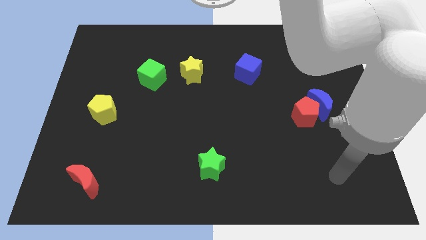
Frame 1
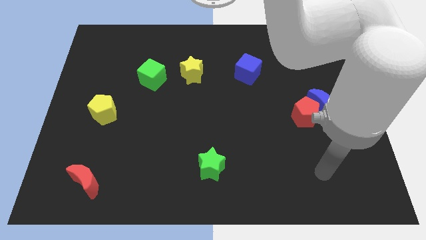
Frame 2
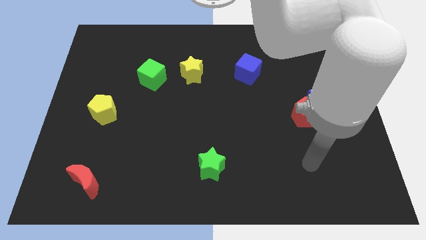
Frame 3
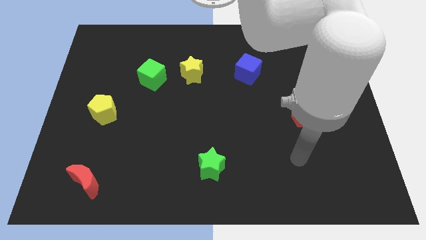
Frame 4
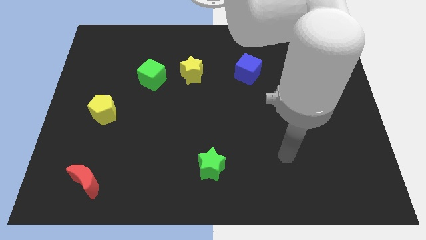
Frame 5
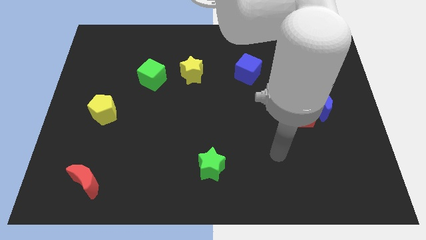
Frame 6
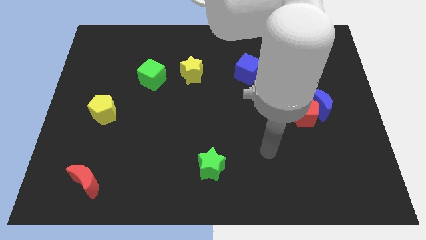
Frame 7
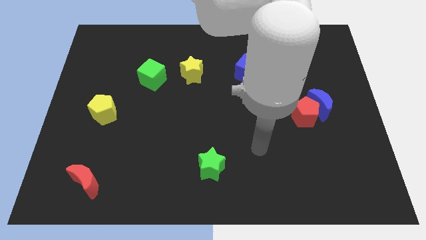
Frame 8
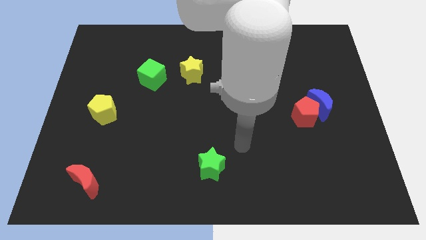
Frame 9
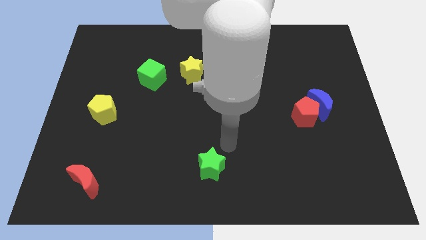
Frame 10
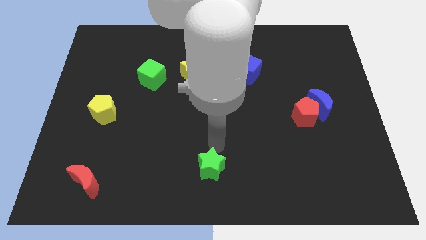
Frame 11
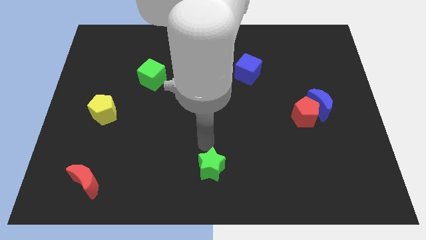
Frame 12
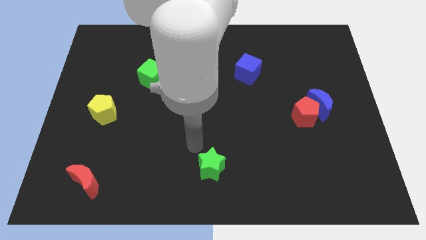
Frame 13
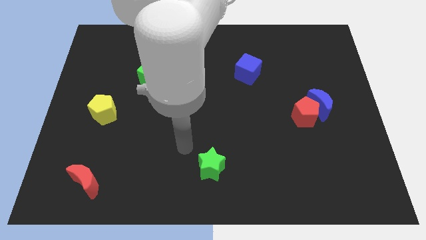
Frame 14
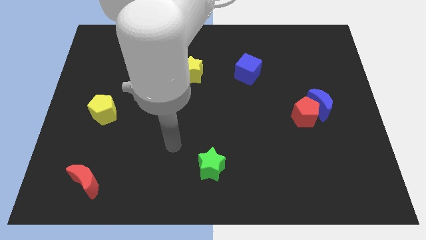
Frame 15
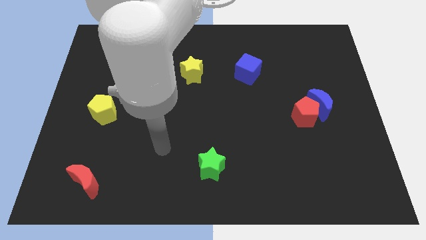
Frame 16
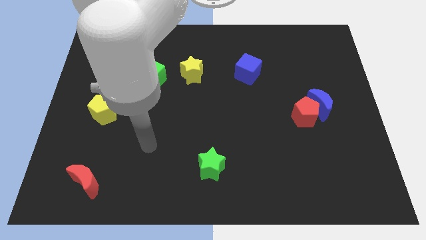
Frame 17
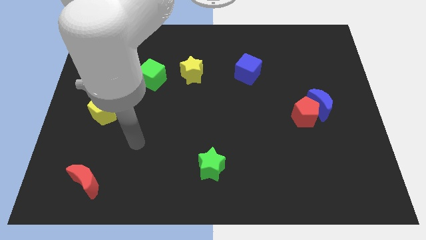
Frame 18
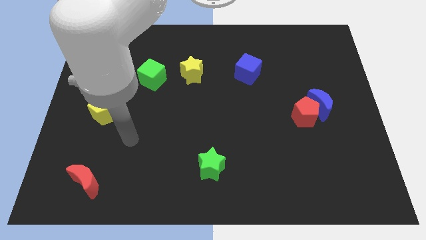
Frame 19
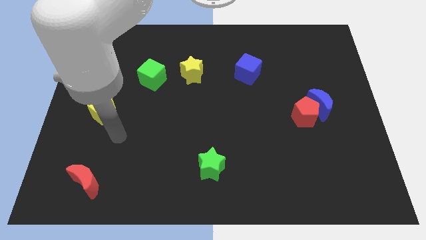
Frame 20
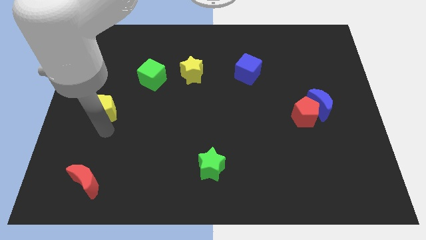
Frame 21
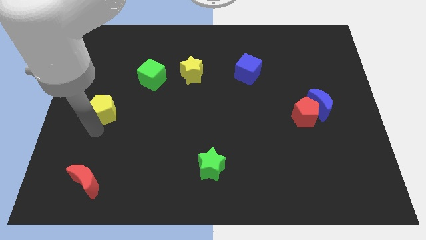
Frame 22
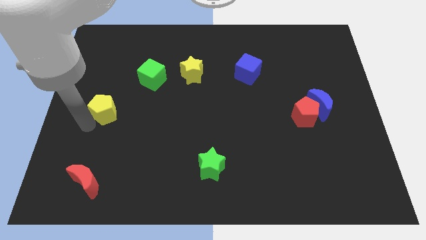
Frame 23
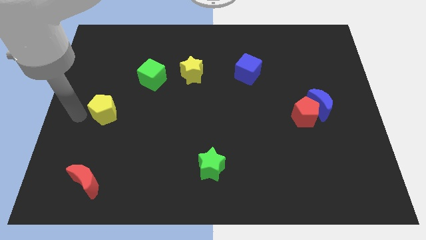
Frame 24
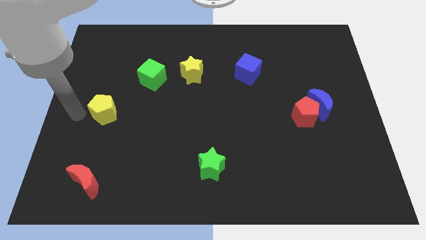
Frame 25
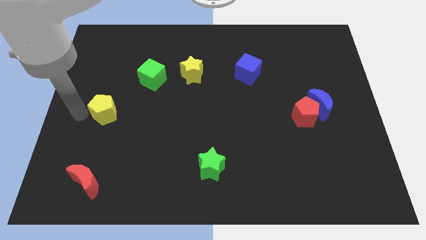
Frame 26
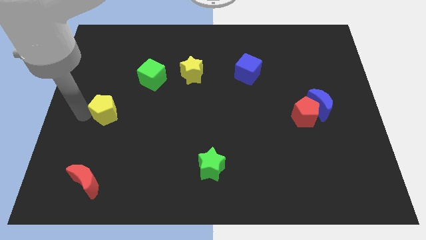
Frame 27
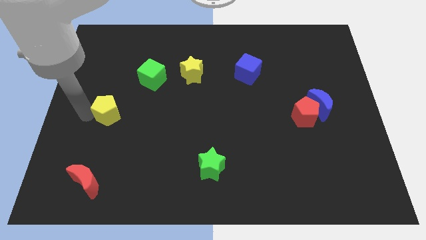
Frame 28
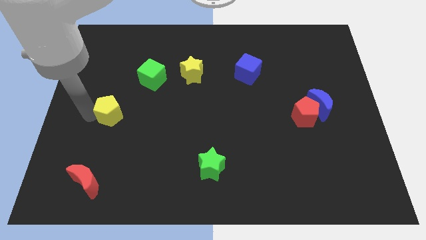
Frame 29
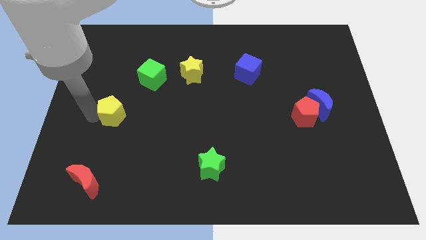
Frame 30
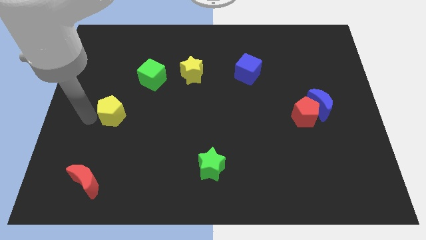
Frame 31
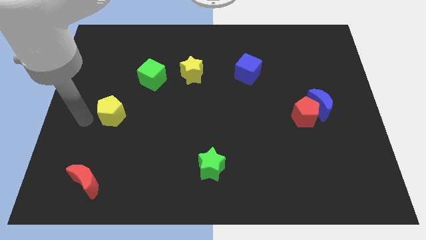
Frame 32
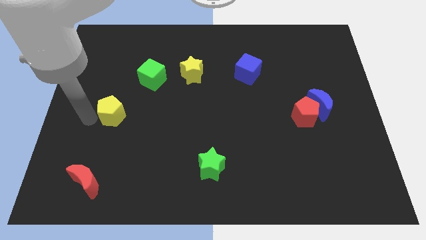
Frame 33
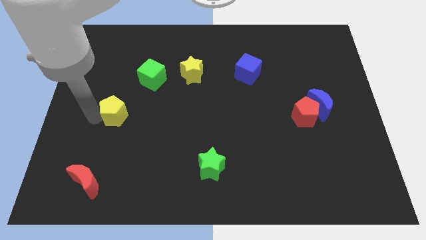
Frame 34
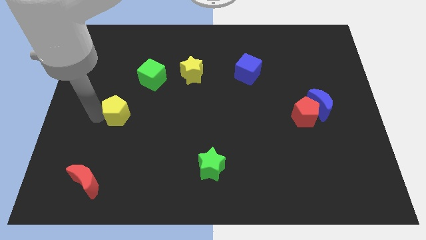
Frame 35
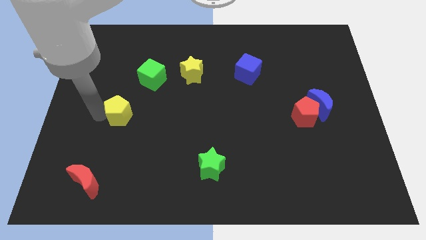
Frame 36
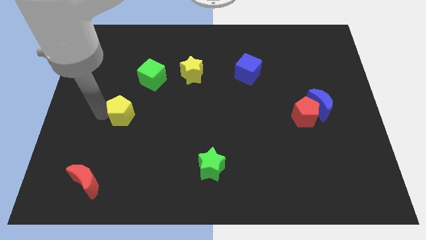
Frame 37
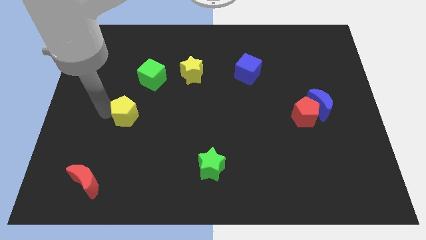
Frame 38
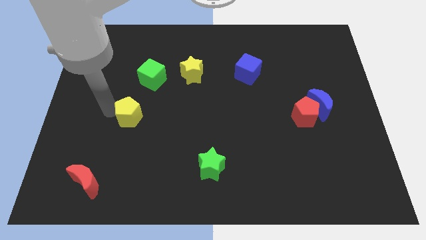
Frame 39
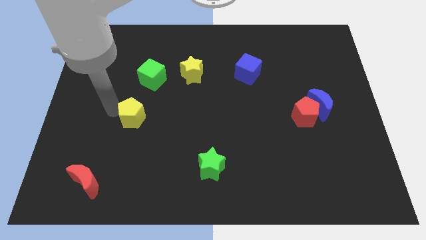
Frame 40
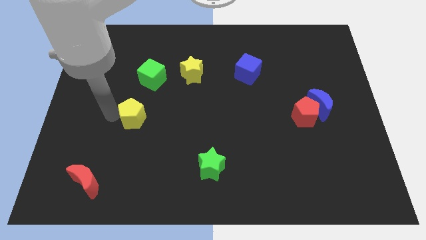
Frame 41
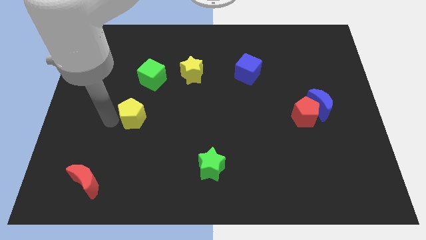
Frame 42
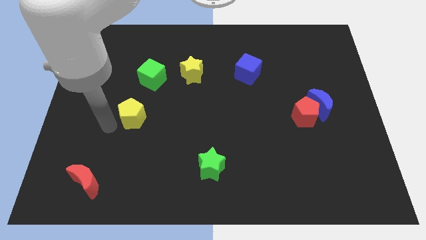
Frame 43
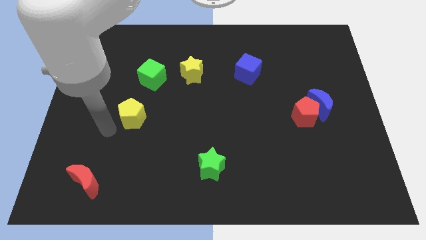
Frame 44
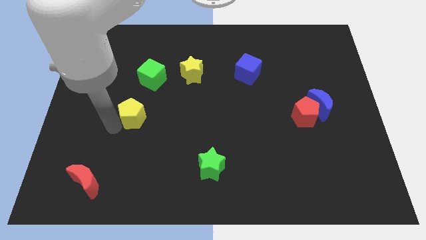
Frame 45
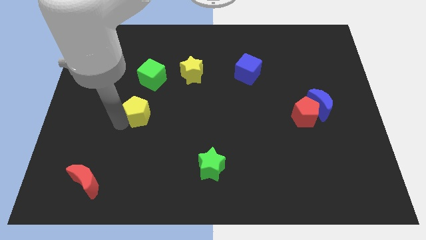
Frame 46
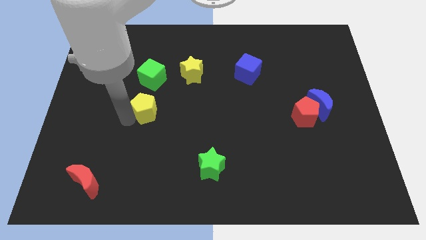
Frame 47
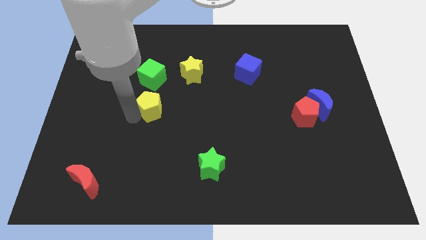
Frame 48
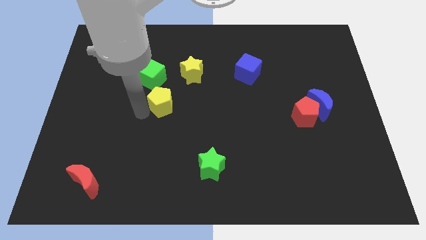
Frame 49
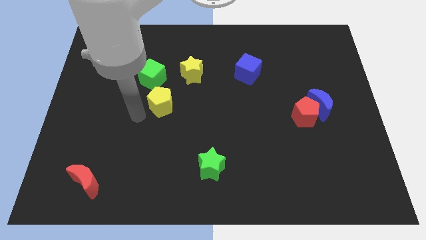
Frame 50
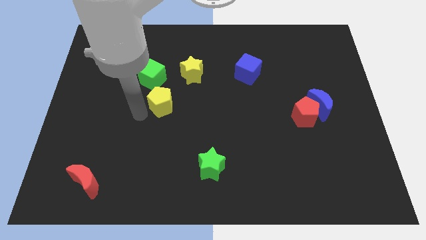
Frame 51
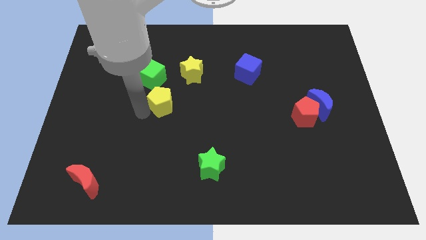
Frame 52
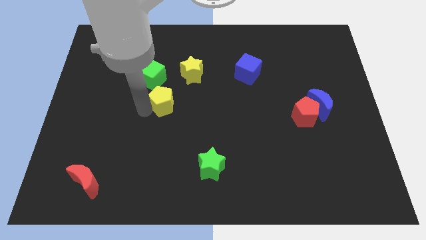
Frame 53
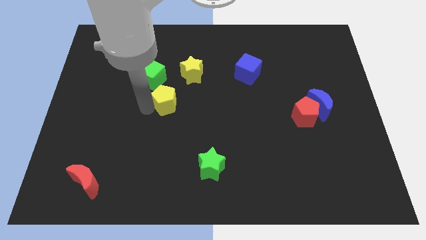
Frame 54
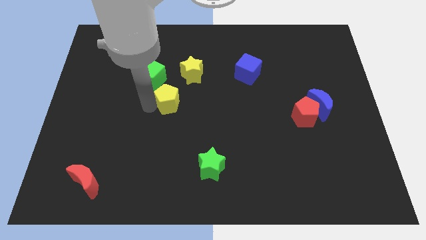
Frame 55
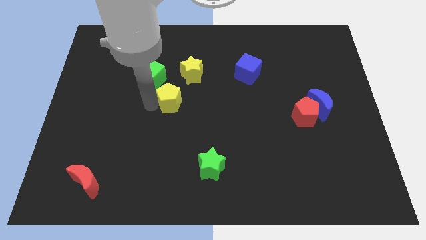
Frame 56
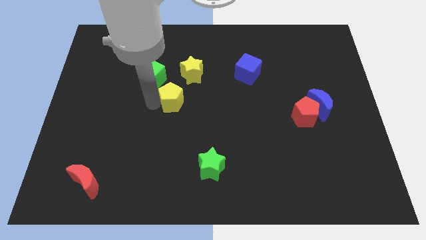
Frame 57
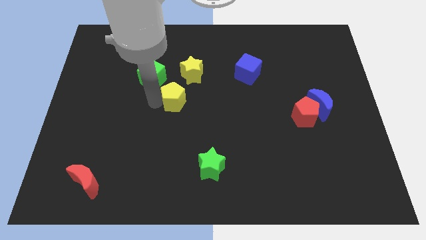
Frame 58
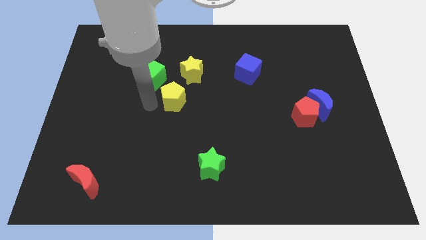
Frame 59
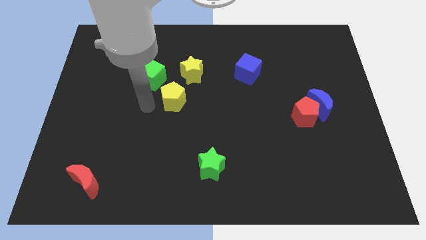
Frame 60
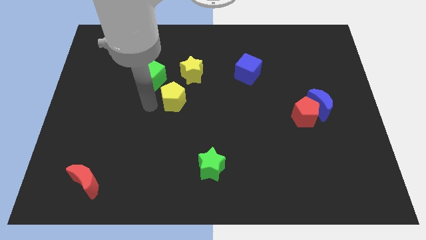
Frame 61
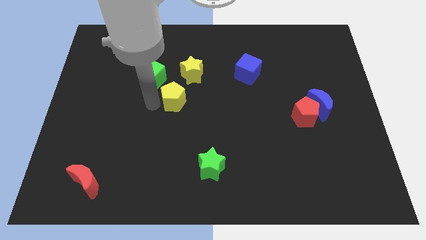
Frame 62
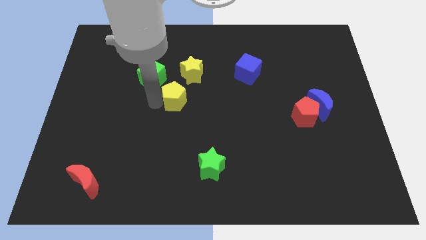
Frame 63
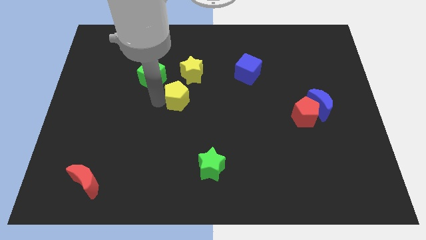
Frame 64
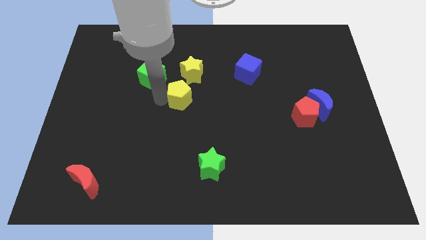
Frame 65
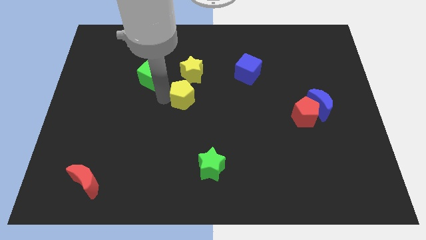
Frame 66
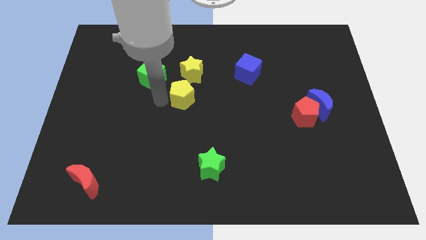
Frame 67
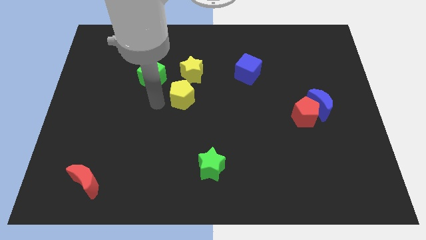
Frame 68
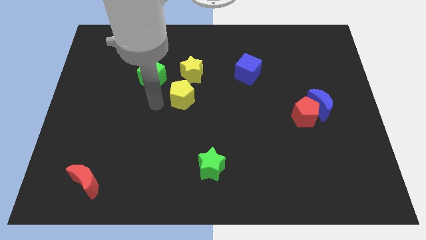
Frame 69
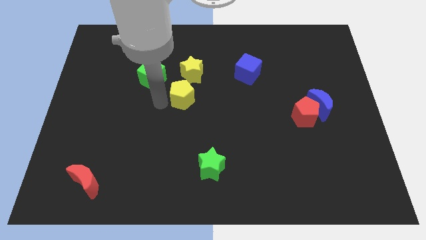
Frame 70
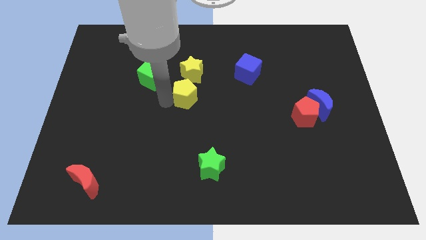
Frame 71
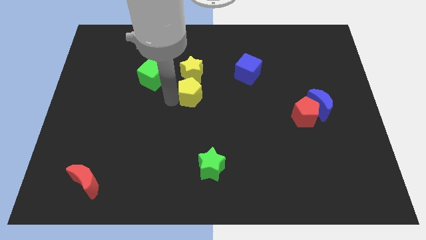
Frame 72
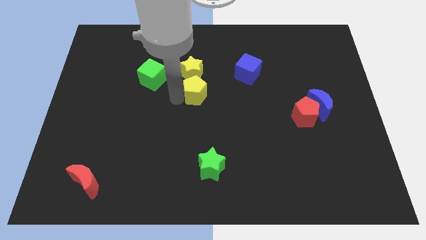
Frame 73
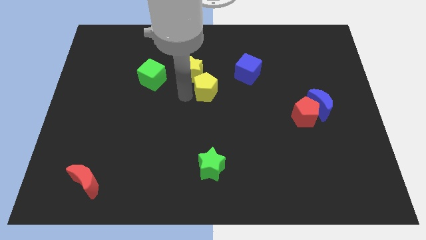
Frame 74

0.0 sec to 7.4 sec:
push the yellow pentagon diagonally down and to the left of the blue cube
